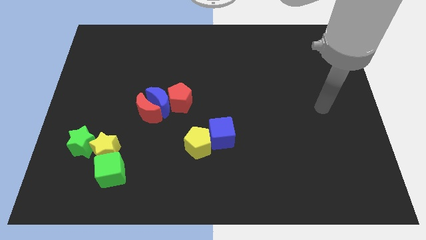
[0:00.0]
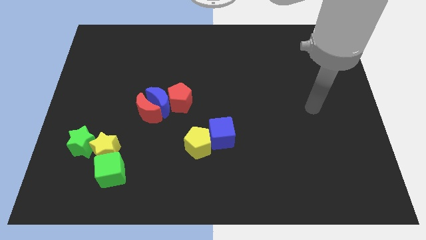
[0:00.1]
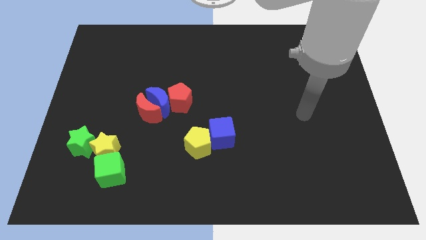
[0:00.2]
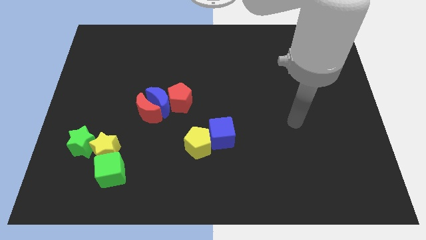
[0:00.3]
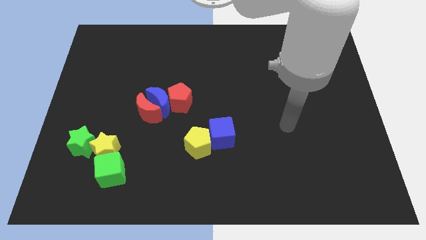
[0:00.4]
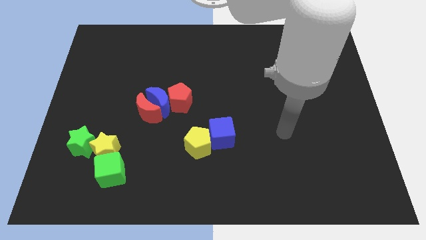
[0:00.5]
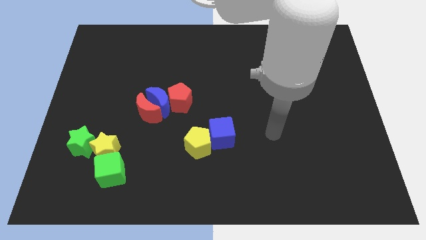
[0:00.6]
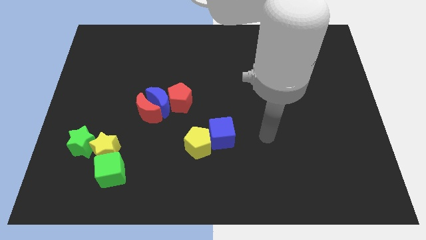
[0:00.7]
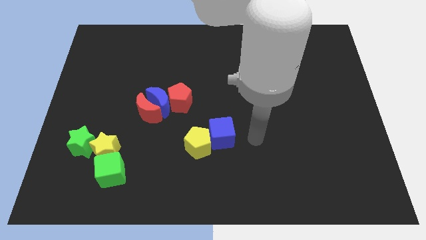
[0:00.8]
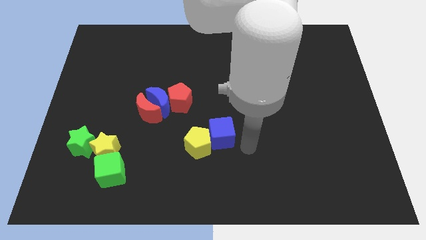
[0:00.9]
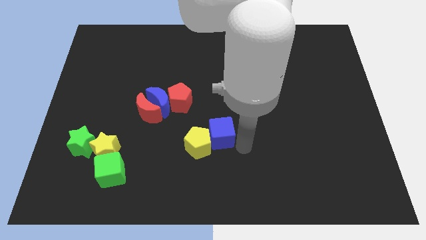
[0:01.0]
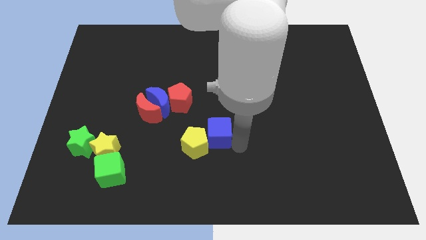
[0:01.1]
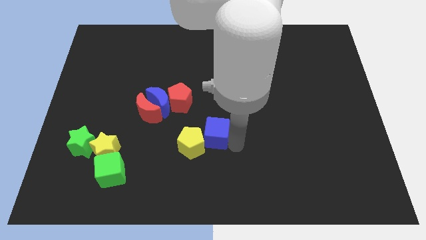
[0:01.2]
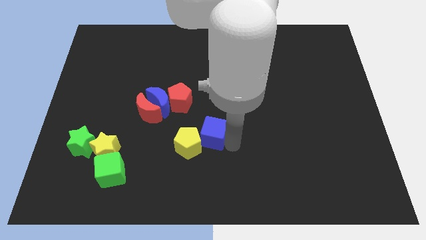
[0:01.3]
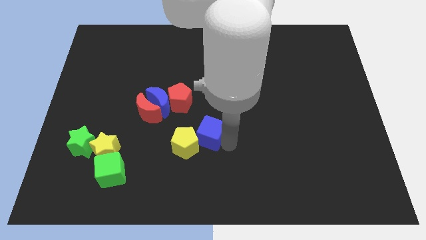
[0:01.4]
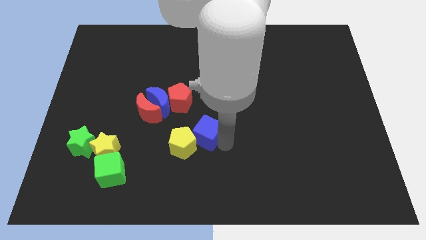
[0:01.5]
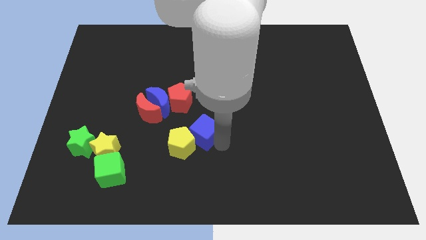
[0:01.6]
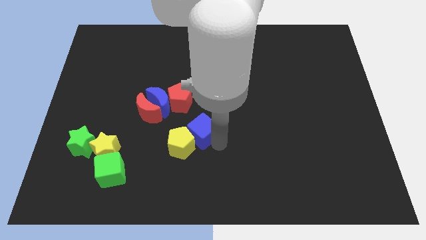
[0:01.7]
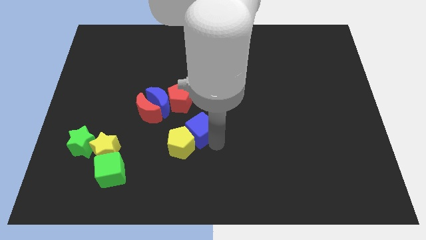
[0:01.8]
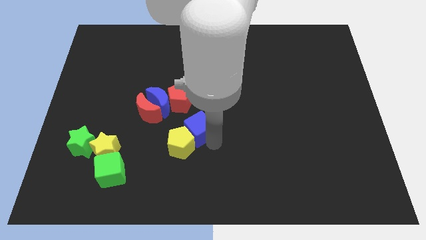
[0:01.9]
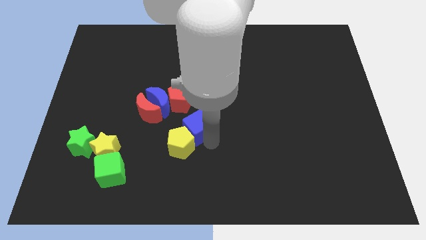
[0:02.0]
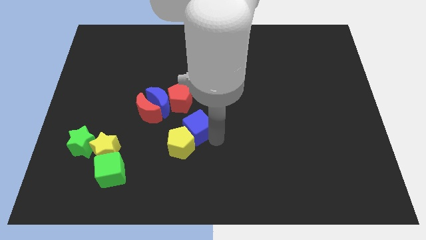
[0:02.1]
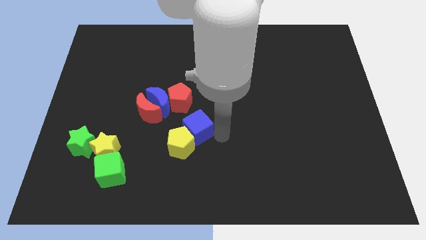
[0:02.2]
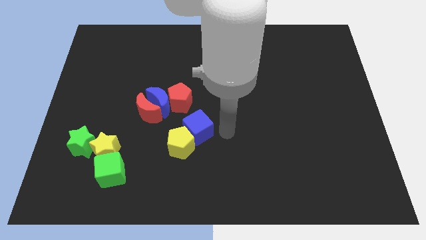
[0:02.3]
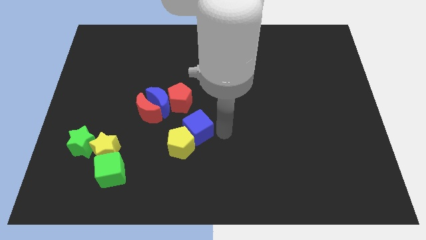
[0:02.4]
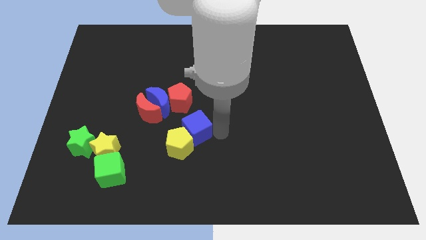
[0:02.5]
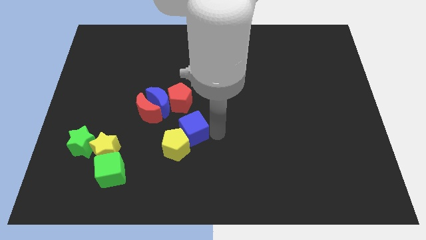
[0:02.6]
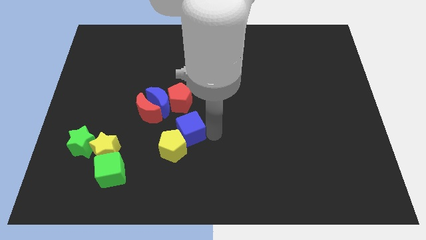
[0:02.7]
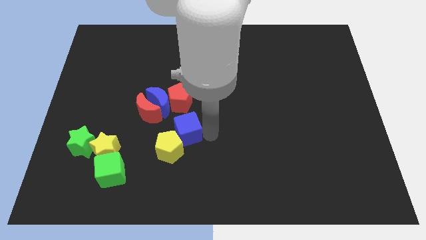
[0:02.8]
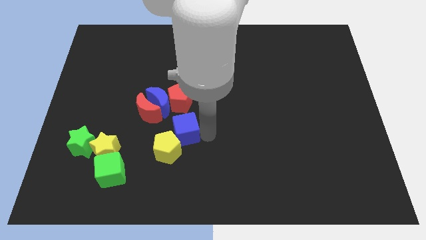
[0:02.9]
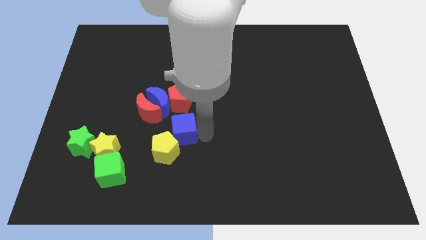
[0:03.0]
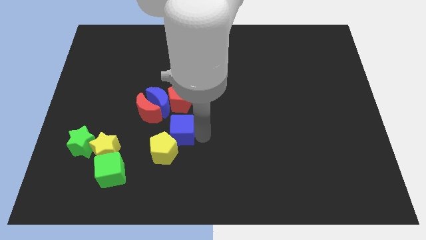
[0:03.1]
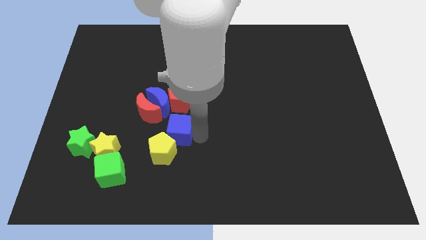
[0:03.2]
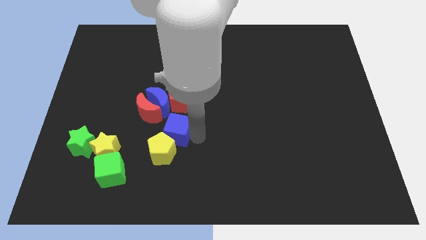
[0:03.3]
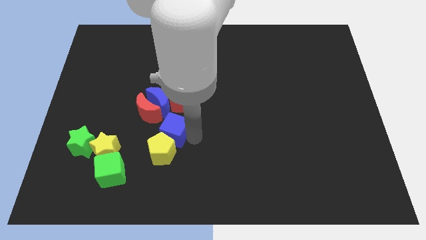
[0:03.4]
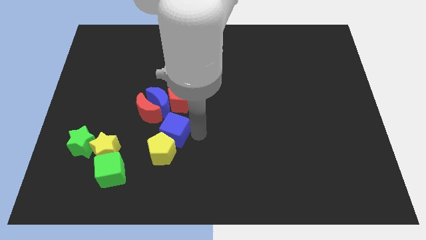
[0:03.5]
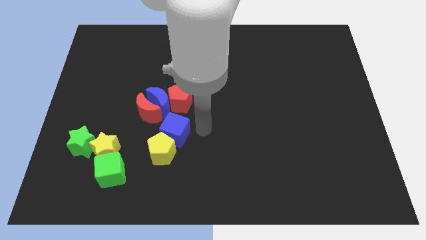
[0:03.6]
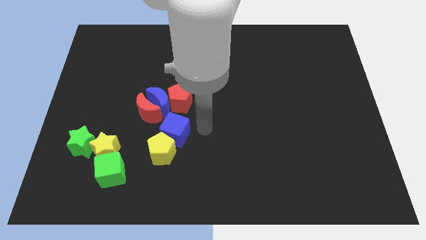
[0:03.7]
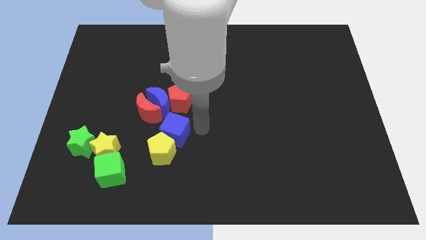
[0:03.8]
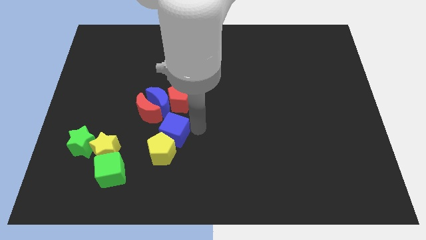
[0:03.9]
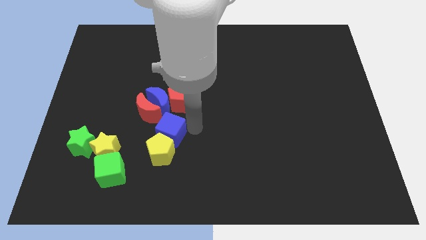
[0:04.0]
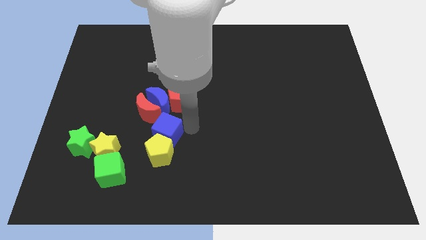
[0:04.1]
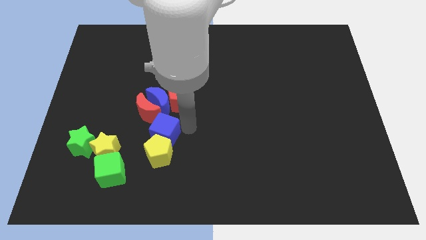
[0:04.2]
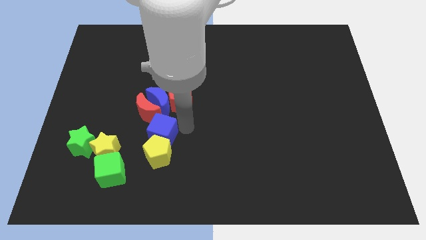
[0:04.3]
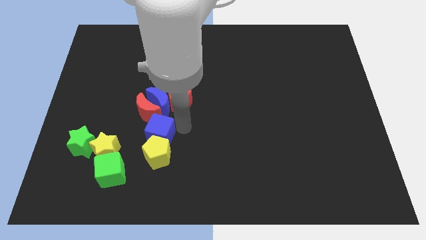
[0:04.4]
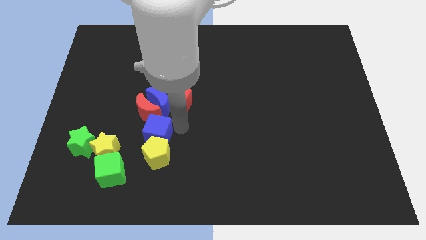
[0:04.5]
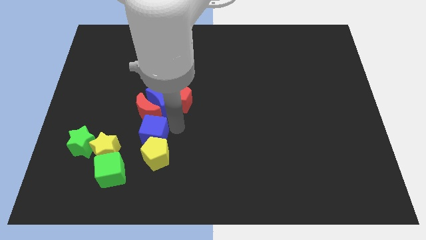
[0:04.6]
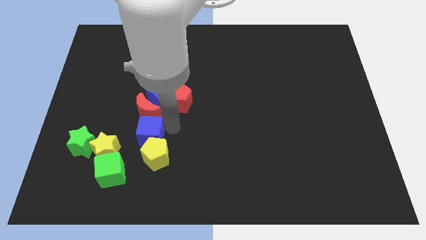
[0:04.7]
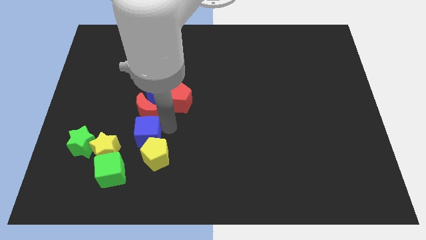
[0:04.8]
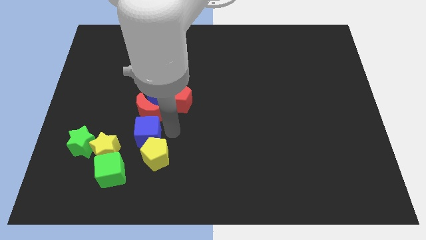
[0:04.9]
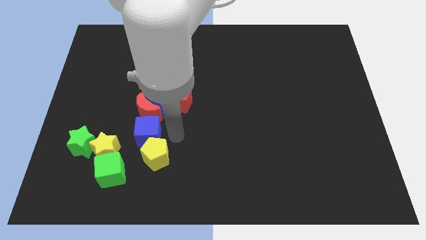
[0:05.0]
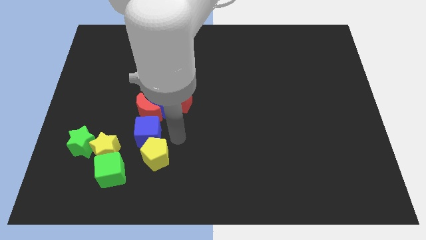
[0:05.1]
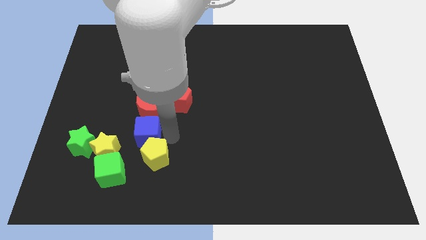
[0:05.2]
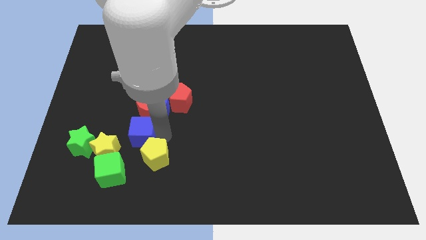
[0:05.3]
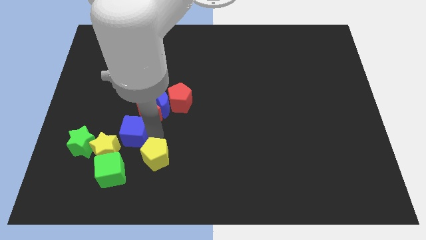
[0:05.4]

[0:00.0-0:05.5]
push the blue cube to the top side of the green cube

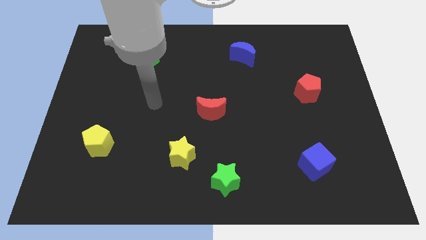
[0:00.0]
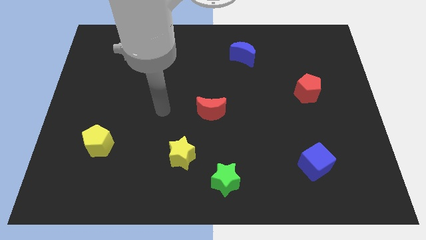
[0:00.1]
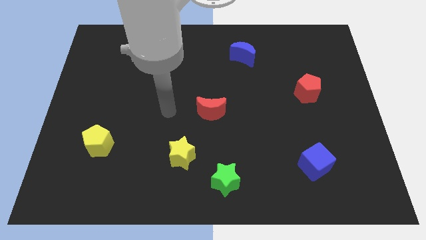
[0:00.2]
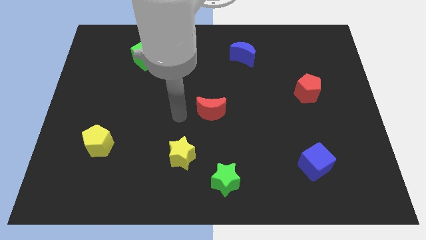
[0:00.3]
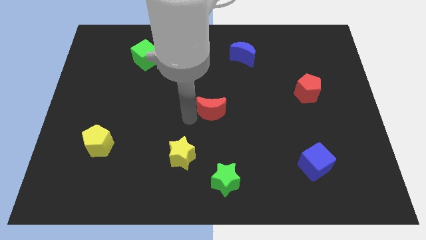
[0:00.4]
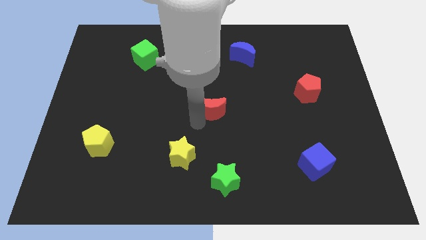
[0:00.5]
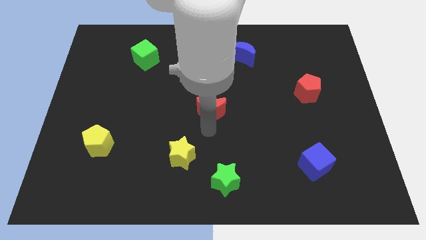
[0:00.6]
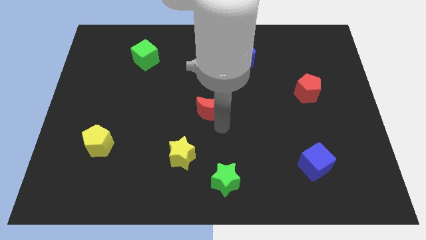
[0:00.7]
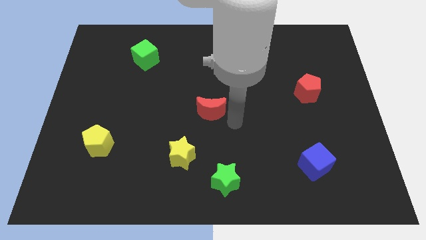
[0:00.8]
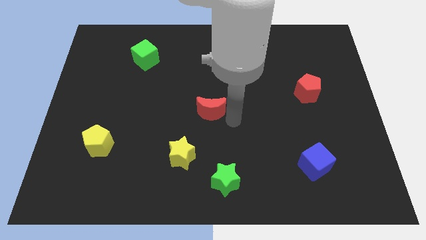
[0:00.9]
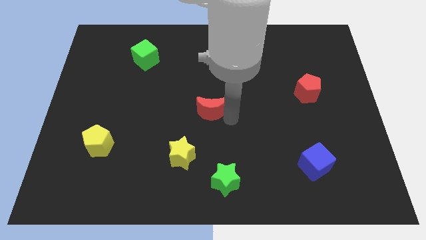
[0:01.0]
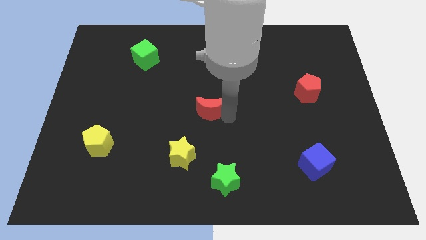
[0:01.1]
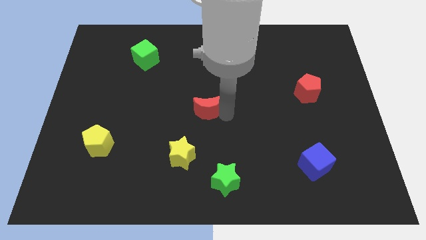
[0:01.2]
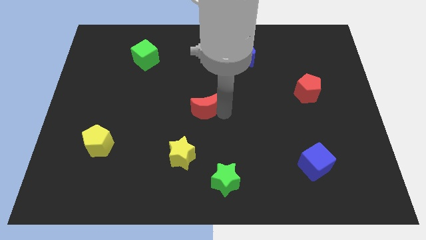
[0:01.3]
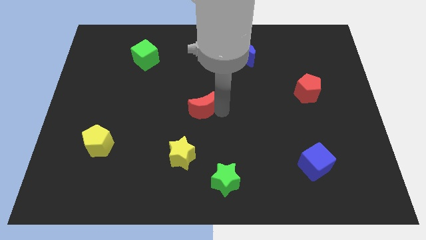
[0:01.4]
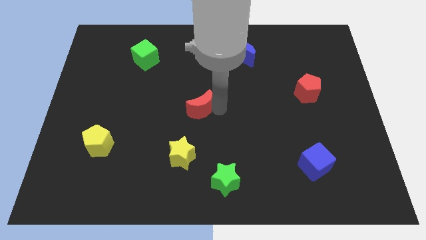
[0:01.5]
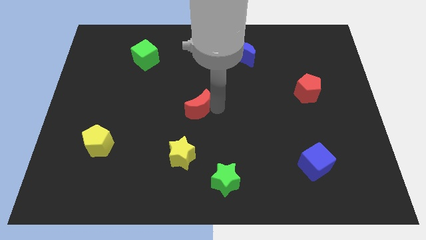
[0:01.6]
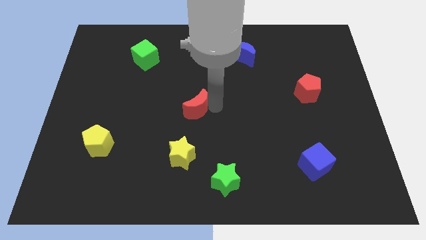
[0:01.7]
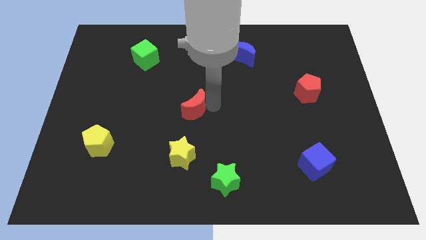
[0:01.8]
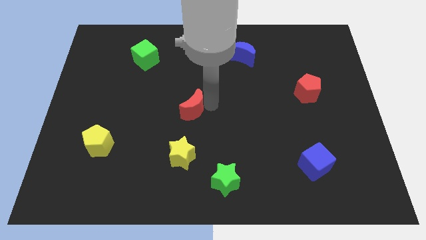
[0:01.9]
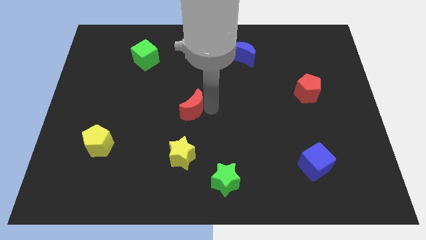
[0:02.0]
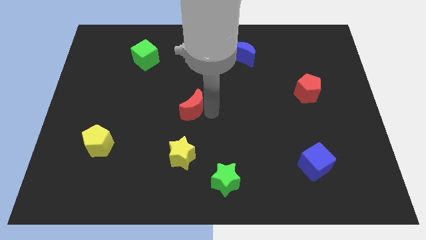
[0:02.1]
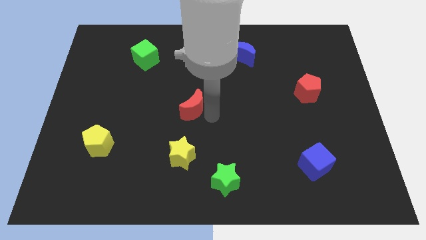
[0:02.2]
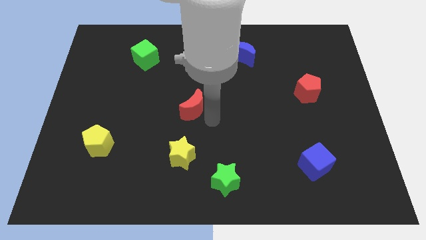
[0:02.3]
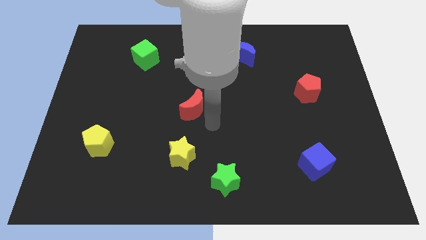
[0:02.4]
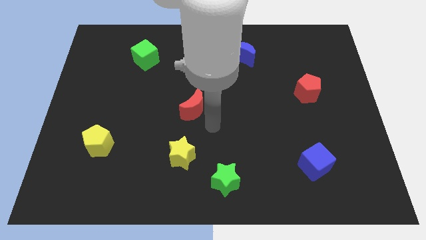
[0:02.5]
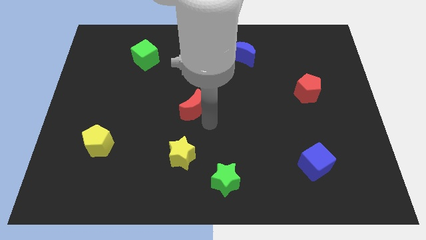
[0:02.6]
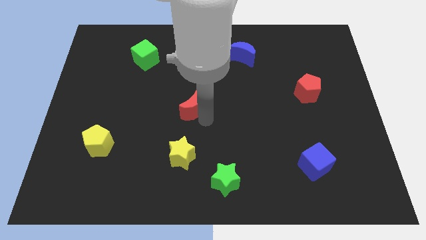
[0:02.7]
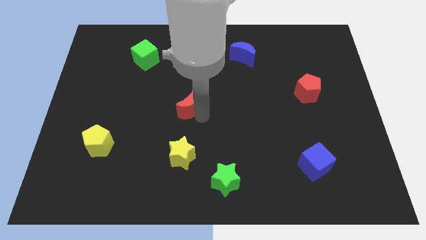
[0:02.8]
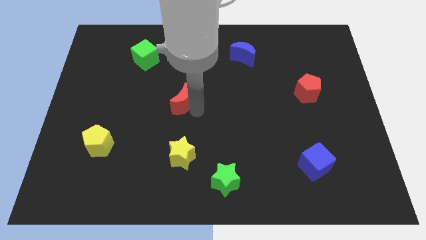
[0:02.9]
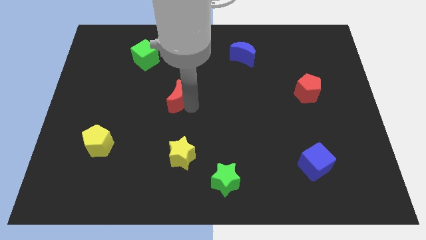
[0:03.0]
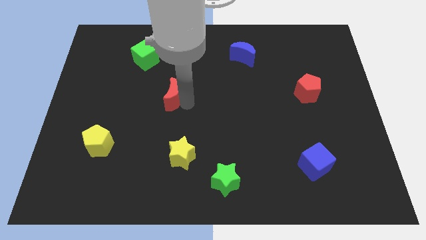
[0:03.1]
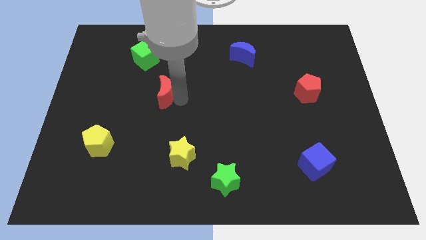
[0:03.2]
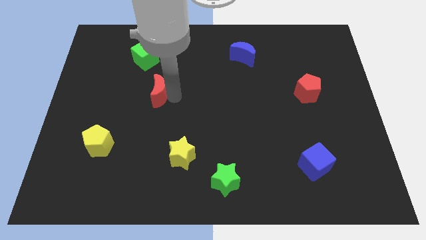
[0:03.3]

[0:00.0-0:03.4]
put the red moon below the green cube
